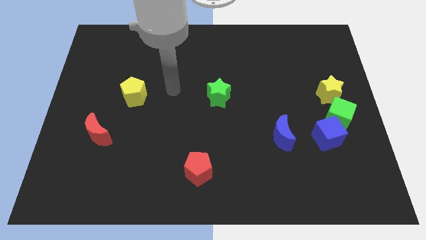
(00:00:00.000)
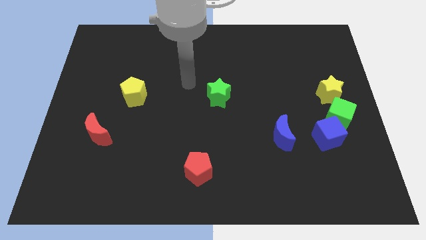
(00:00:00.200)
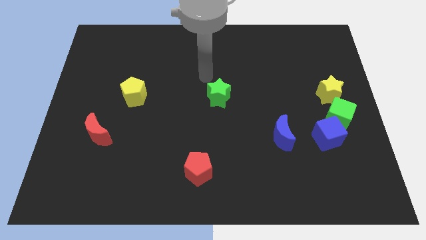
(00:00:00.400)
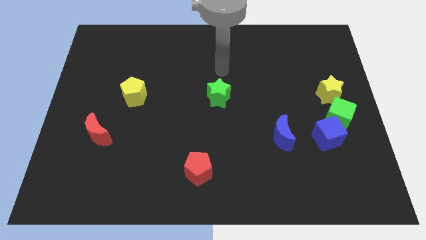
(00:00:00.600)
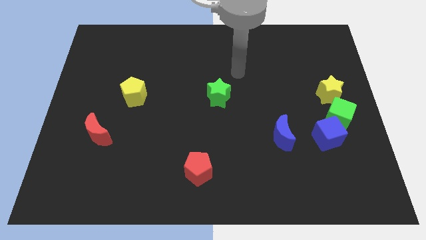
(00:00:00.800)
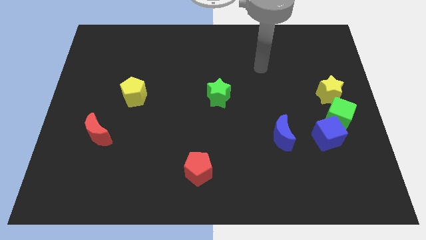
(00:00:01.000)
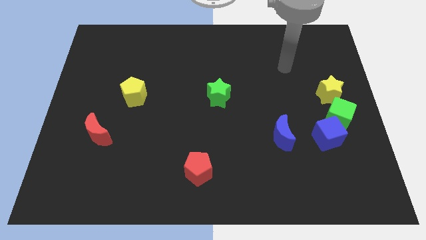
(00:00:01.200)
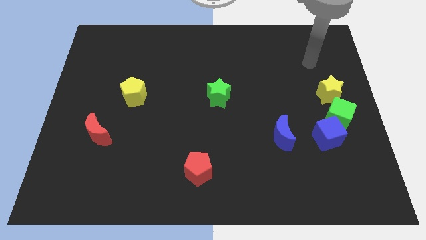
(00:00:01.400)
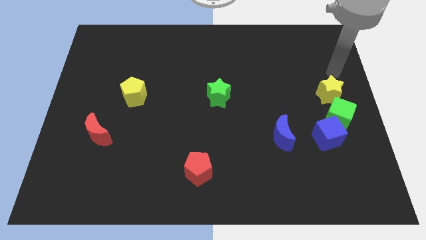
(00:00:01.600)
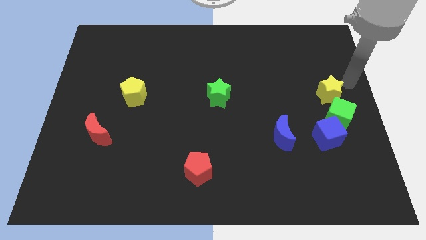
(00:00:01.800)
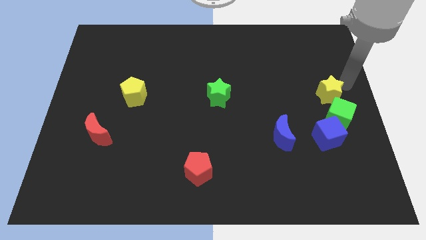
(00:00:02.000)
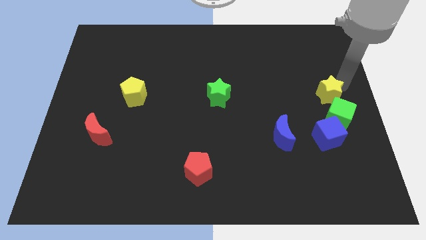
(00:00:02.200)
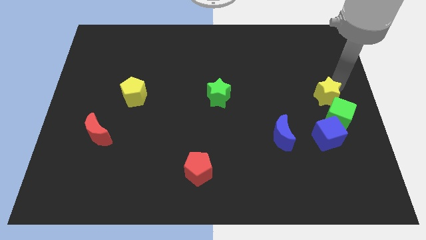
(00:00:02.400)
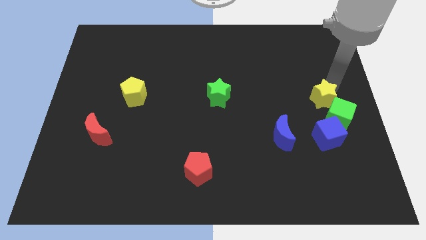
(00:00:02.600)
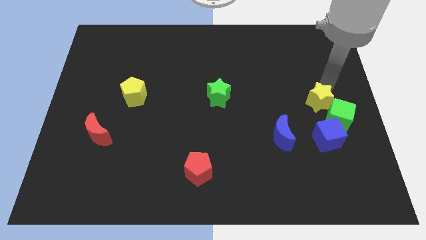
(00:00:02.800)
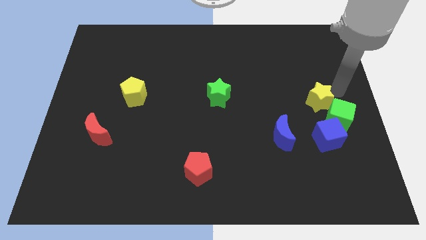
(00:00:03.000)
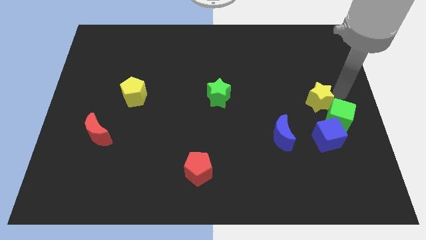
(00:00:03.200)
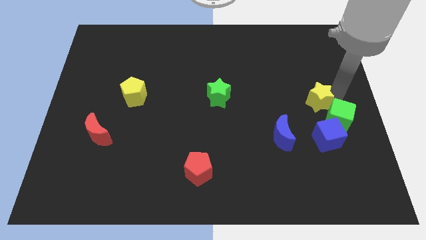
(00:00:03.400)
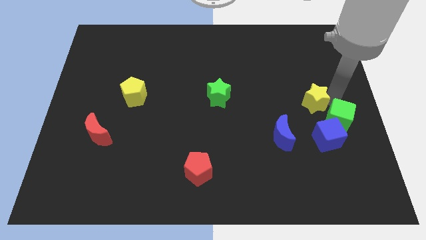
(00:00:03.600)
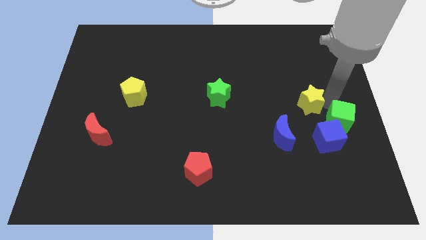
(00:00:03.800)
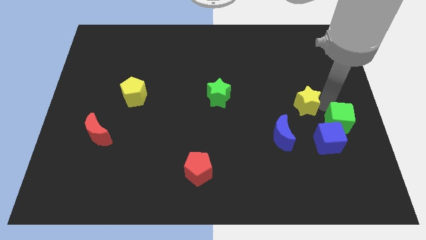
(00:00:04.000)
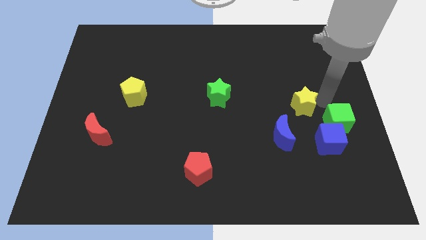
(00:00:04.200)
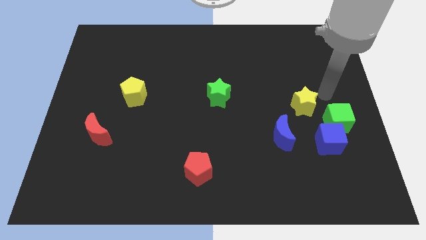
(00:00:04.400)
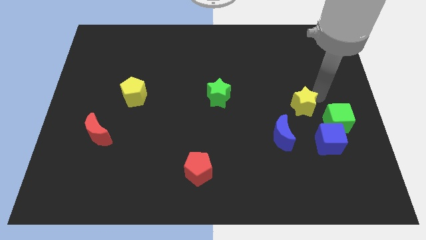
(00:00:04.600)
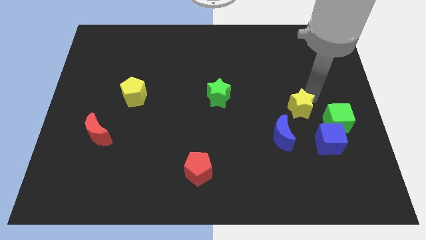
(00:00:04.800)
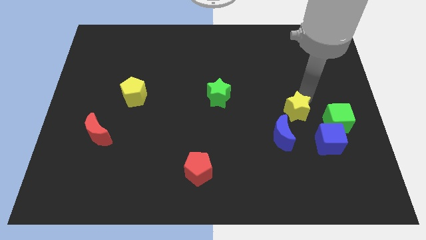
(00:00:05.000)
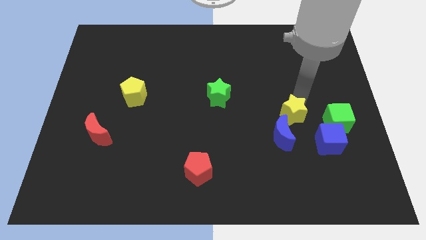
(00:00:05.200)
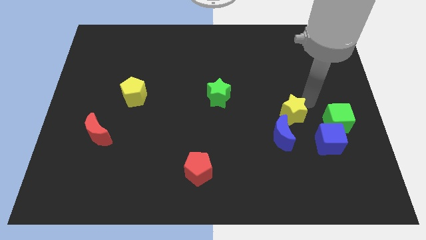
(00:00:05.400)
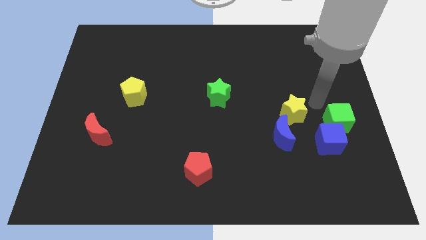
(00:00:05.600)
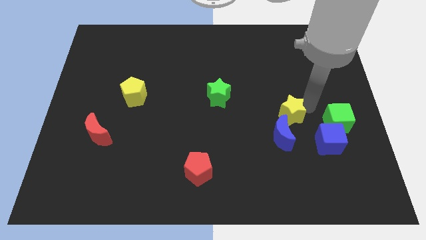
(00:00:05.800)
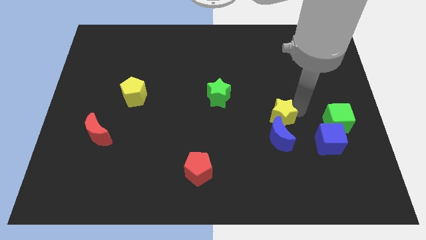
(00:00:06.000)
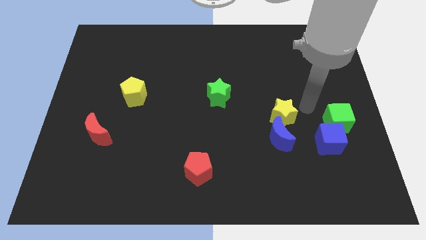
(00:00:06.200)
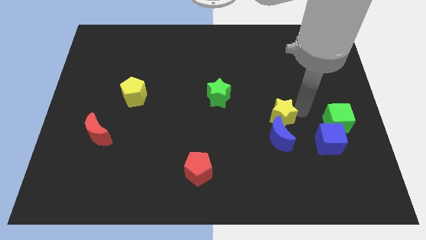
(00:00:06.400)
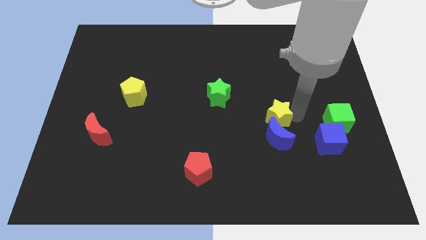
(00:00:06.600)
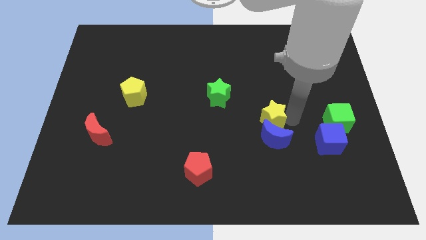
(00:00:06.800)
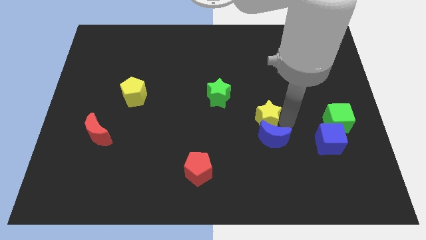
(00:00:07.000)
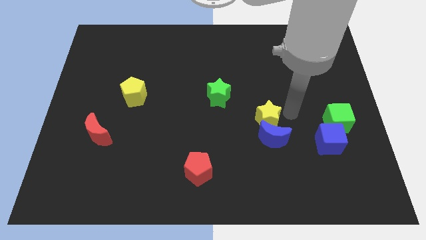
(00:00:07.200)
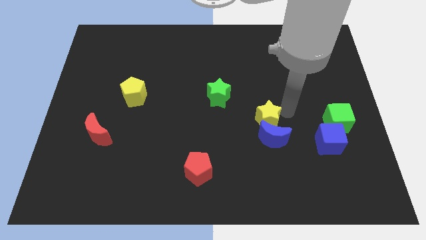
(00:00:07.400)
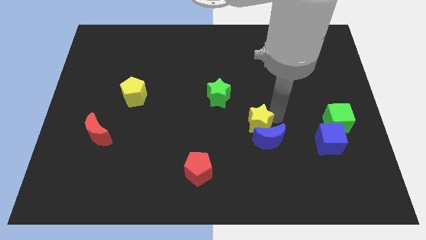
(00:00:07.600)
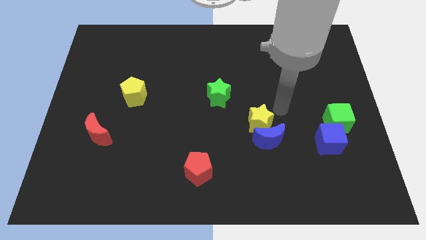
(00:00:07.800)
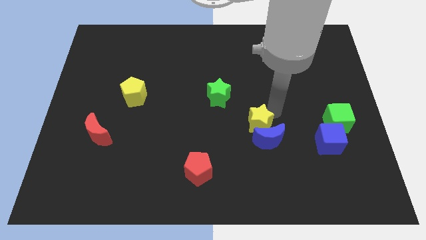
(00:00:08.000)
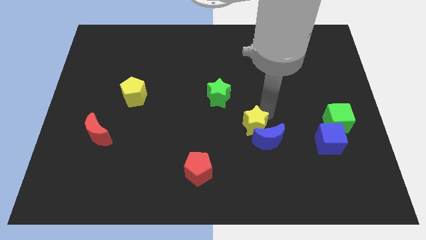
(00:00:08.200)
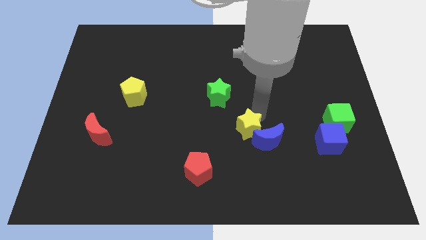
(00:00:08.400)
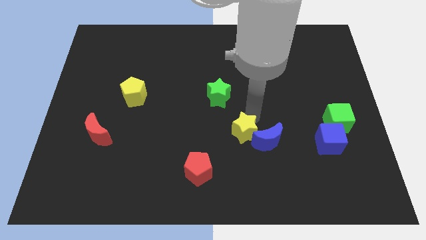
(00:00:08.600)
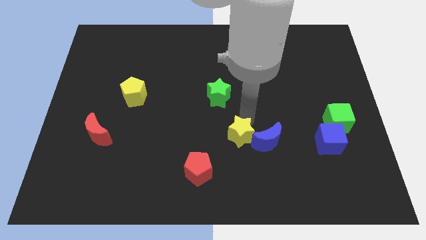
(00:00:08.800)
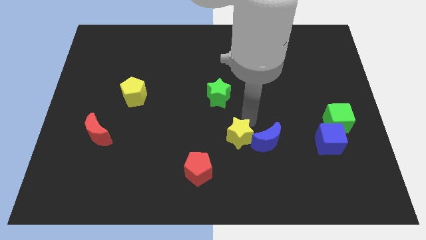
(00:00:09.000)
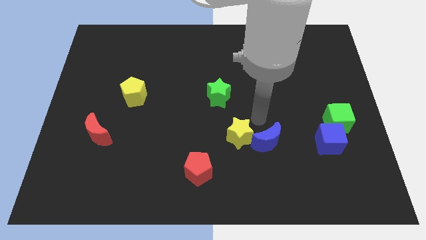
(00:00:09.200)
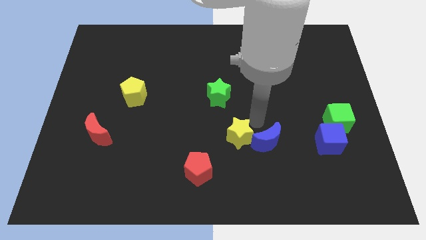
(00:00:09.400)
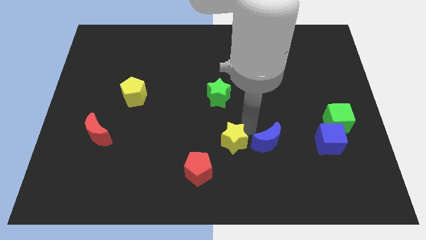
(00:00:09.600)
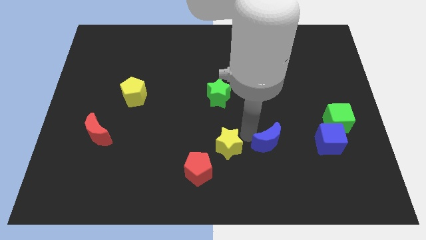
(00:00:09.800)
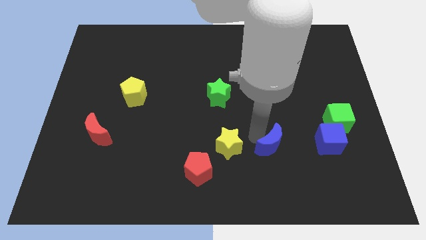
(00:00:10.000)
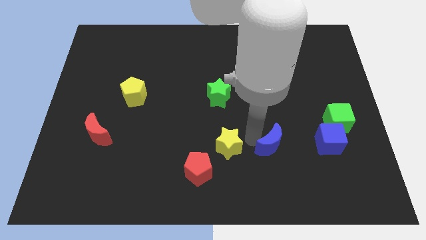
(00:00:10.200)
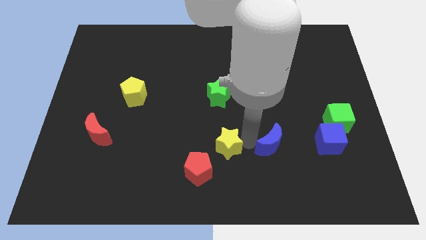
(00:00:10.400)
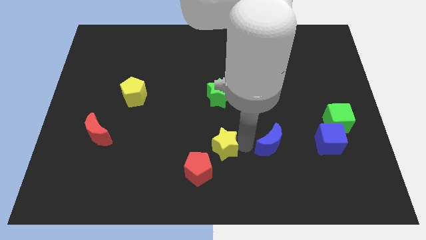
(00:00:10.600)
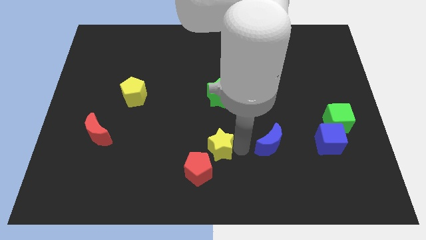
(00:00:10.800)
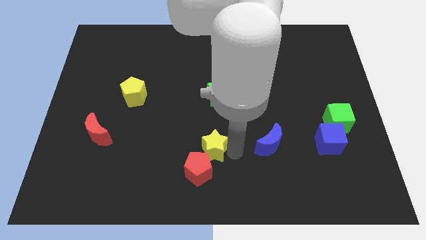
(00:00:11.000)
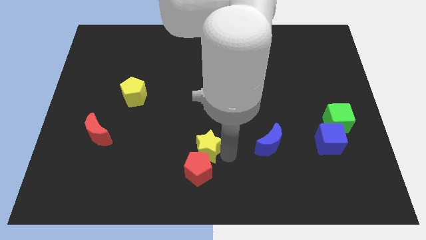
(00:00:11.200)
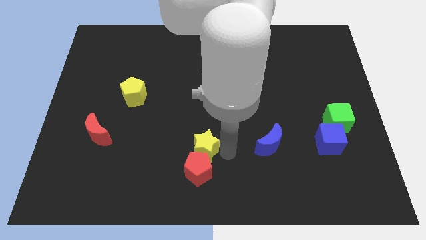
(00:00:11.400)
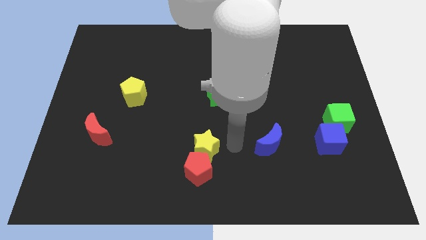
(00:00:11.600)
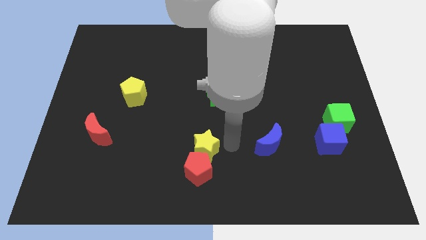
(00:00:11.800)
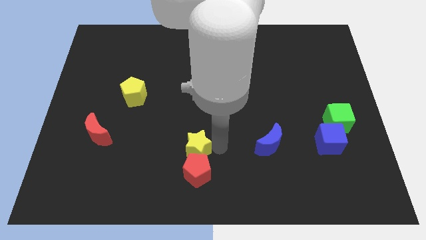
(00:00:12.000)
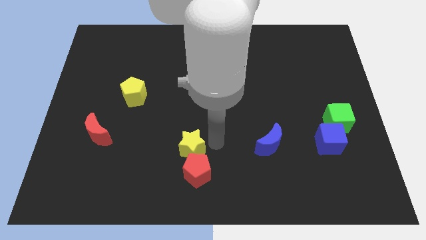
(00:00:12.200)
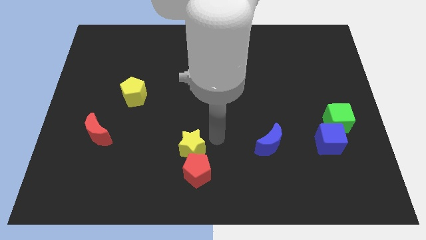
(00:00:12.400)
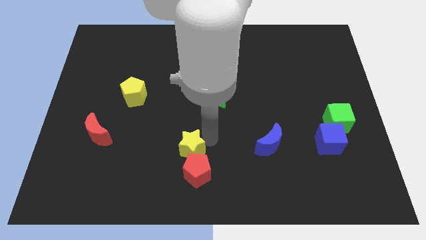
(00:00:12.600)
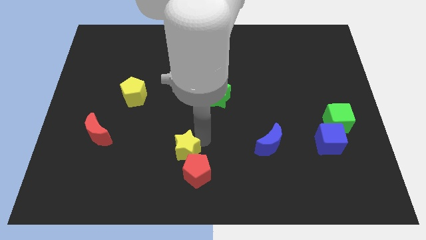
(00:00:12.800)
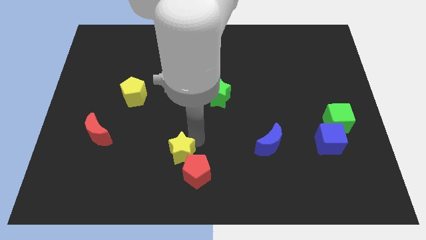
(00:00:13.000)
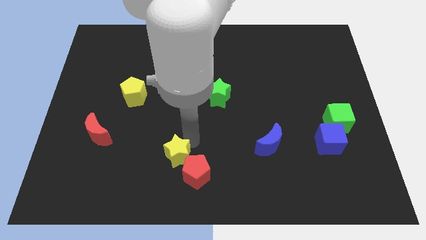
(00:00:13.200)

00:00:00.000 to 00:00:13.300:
slide the yellow star just left of the red pentagon
